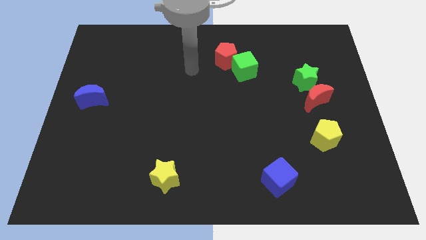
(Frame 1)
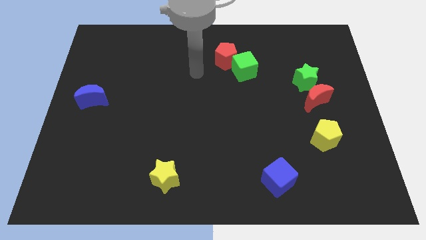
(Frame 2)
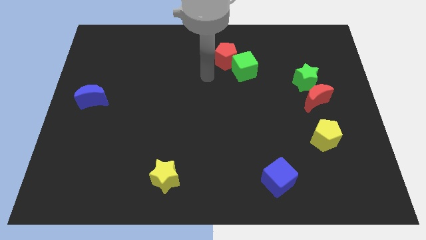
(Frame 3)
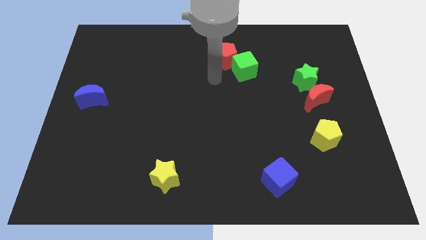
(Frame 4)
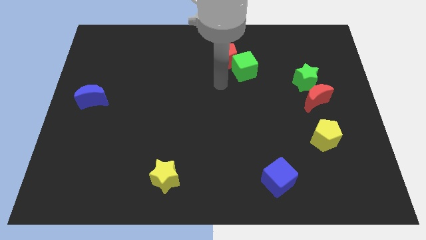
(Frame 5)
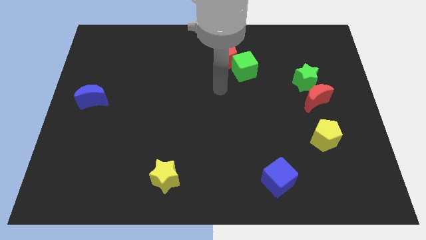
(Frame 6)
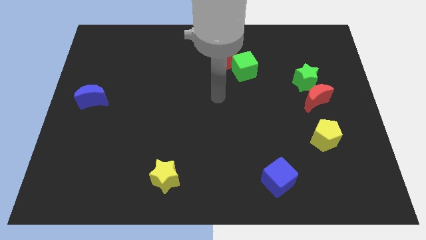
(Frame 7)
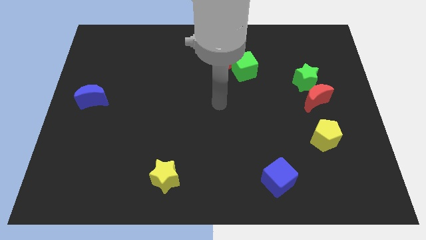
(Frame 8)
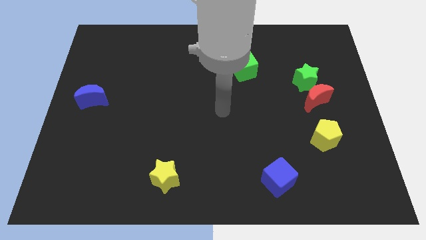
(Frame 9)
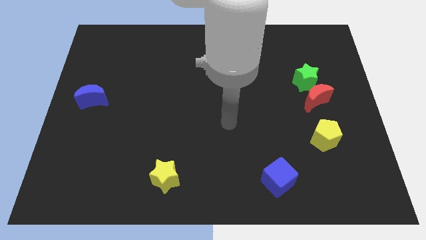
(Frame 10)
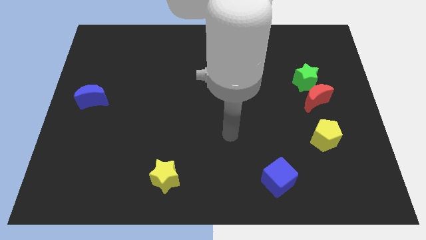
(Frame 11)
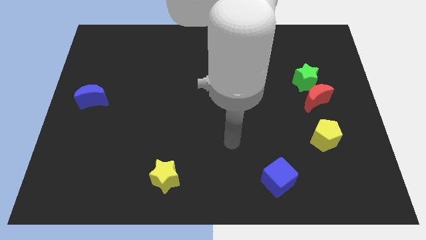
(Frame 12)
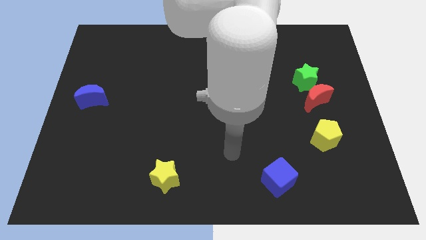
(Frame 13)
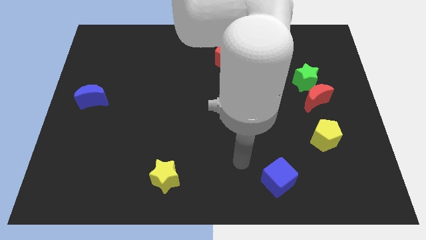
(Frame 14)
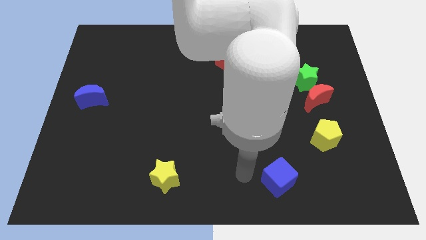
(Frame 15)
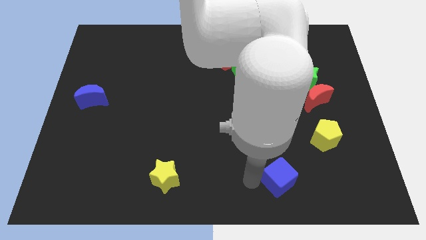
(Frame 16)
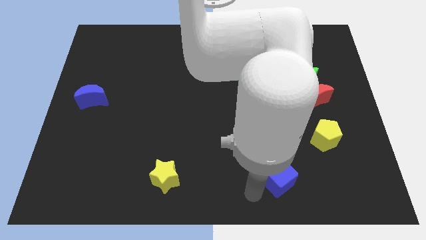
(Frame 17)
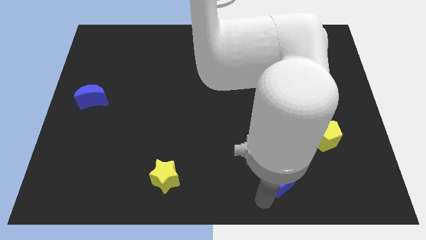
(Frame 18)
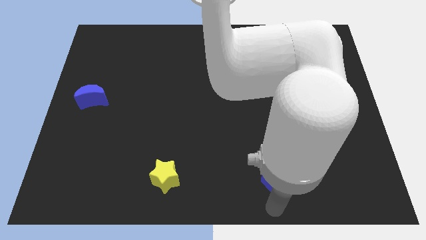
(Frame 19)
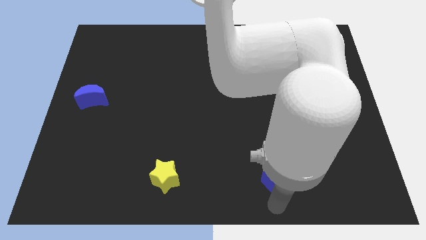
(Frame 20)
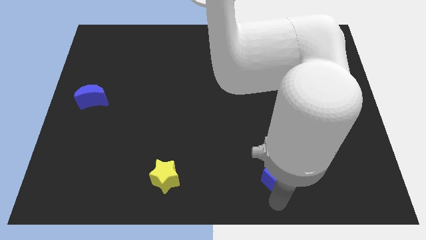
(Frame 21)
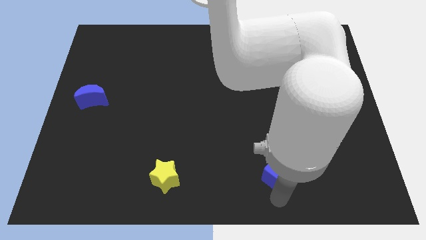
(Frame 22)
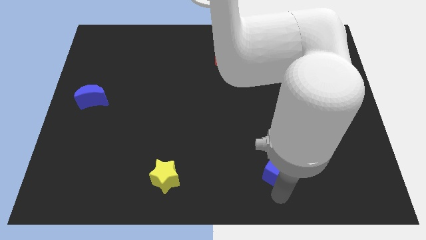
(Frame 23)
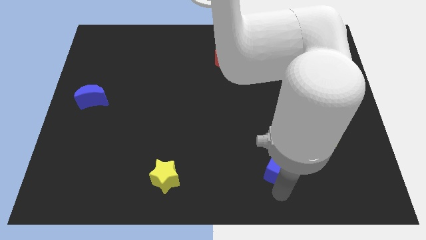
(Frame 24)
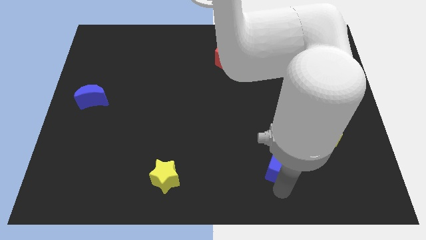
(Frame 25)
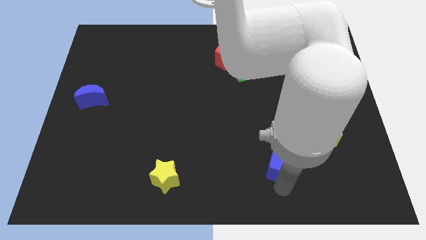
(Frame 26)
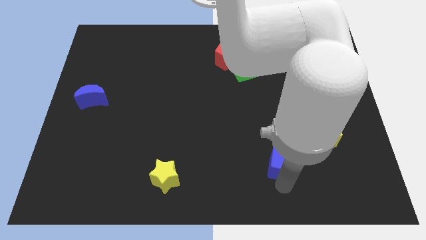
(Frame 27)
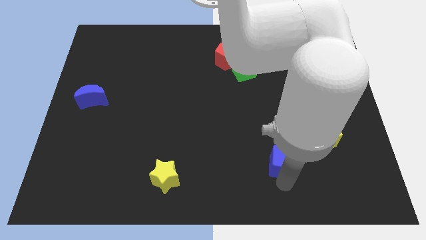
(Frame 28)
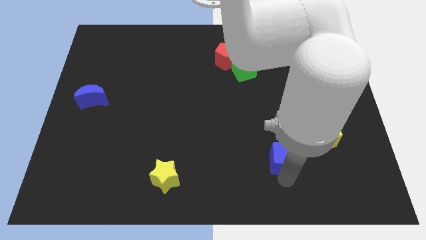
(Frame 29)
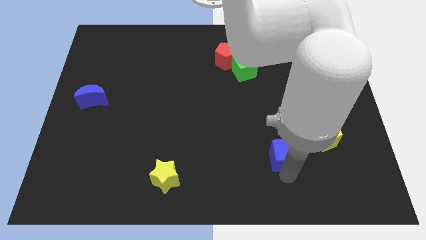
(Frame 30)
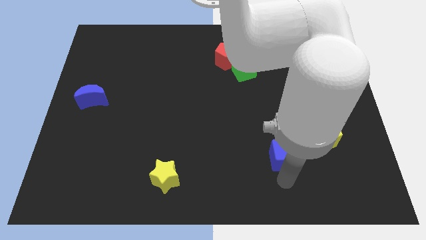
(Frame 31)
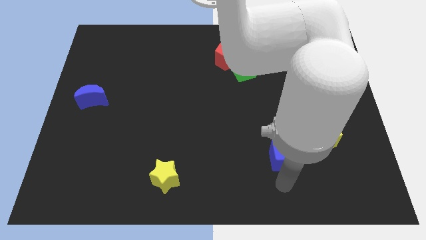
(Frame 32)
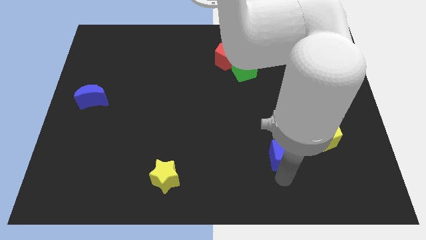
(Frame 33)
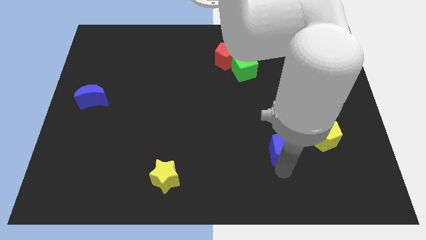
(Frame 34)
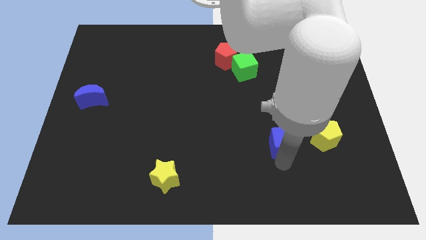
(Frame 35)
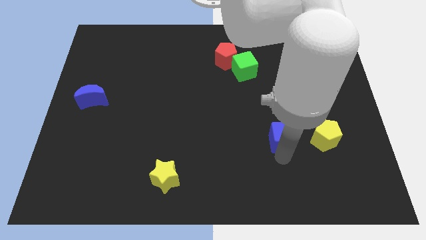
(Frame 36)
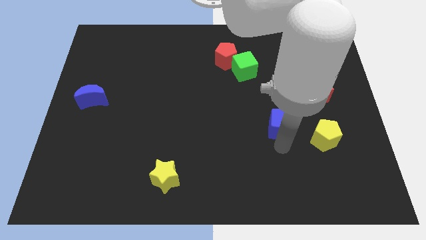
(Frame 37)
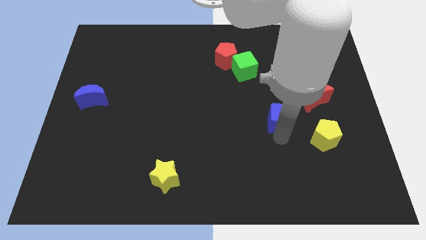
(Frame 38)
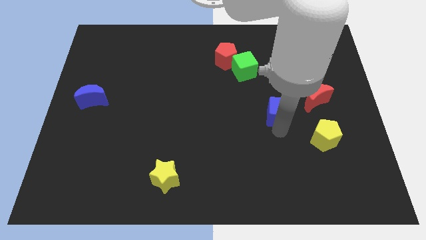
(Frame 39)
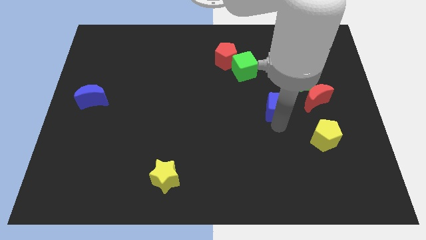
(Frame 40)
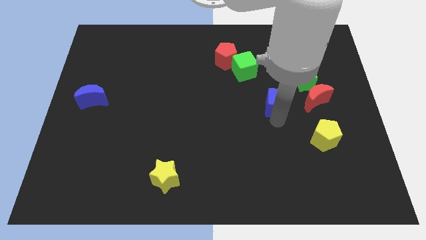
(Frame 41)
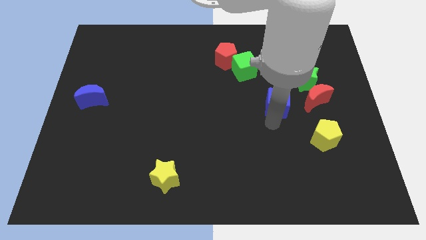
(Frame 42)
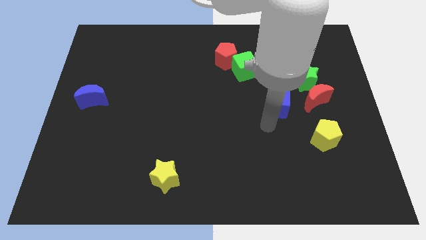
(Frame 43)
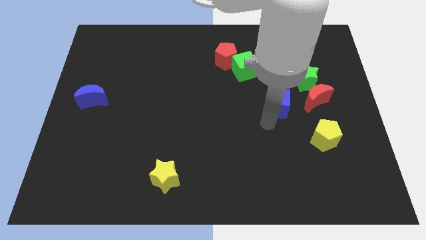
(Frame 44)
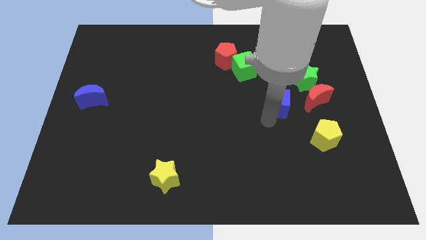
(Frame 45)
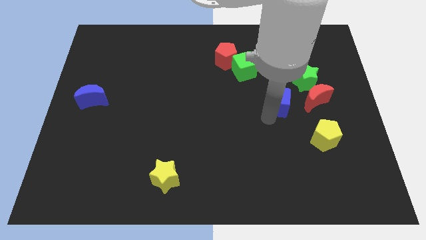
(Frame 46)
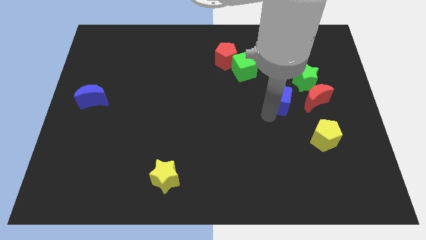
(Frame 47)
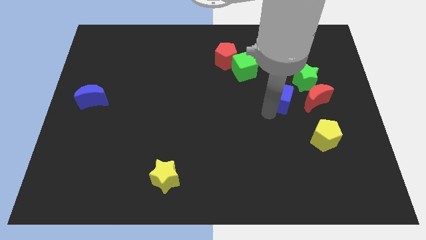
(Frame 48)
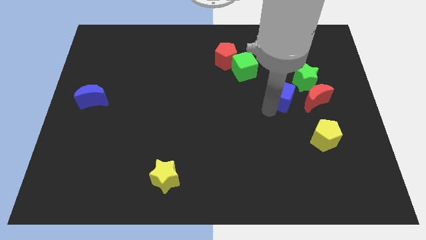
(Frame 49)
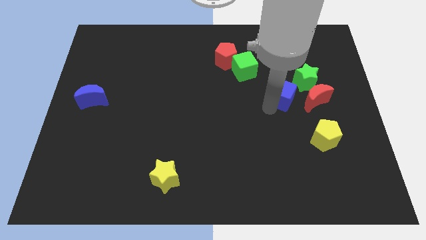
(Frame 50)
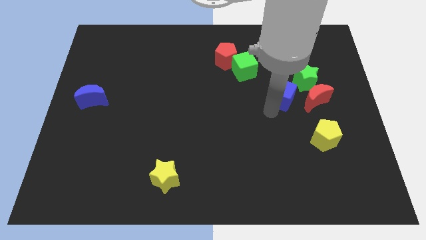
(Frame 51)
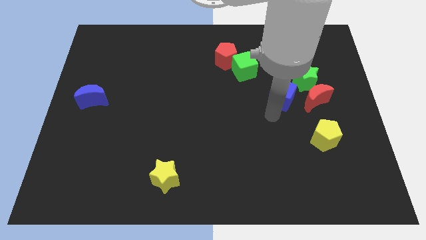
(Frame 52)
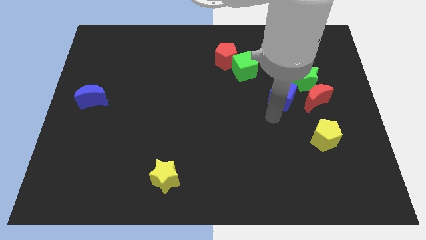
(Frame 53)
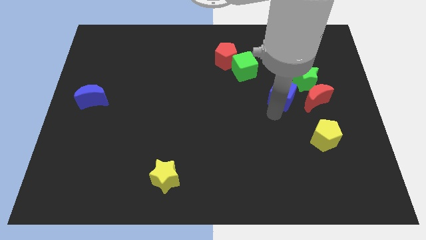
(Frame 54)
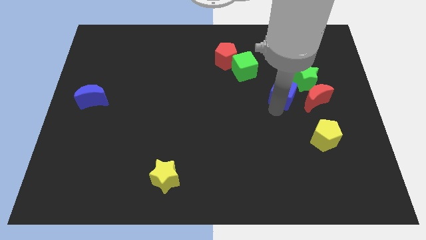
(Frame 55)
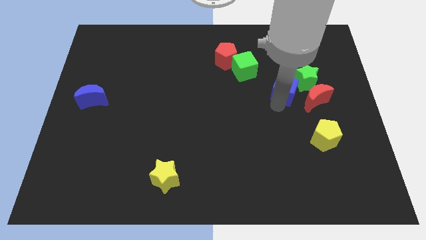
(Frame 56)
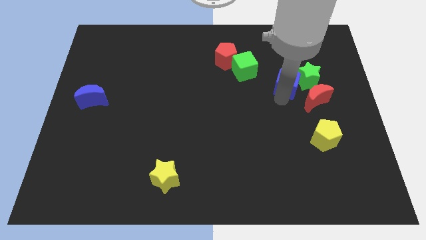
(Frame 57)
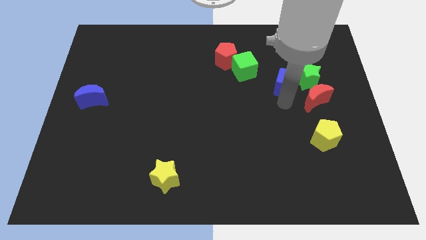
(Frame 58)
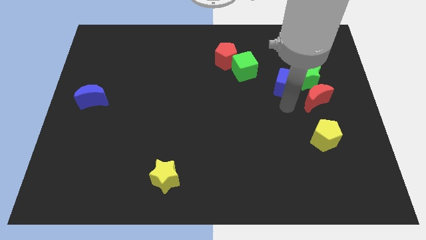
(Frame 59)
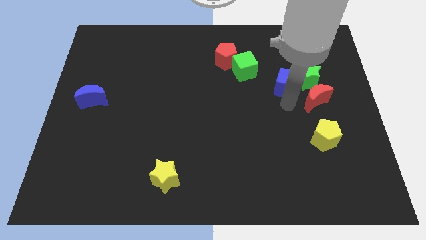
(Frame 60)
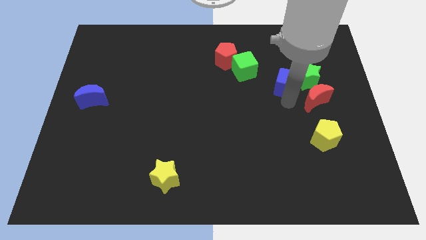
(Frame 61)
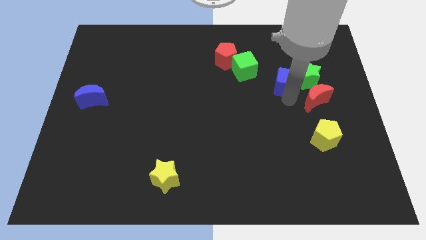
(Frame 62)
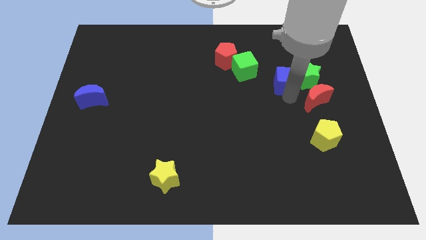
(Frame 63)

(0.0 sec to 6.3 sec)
slide the blue cube to the right of the green cube
